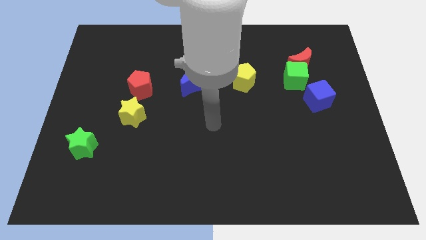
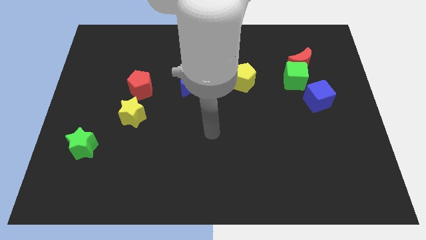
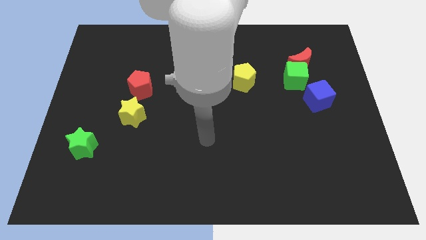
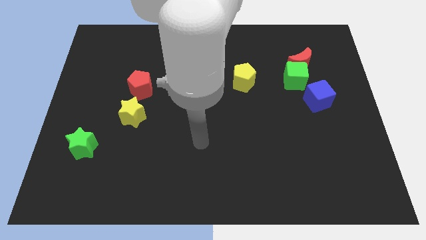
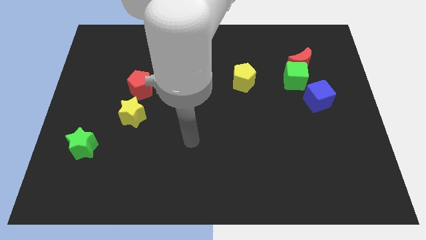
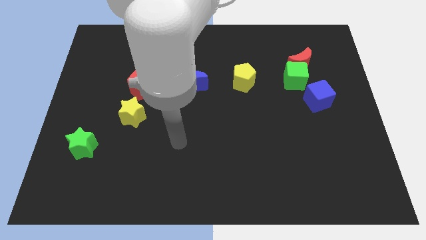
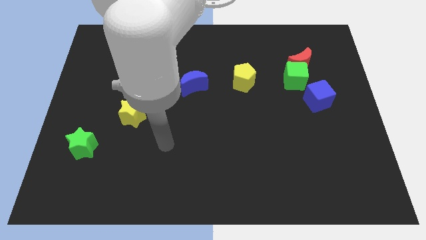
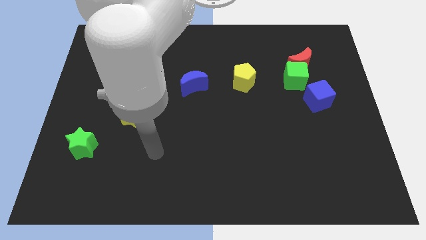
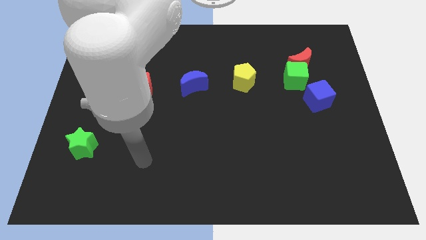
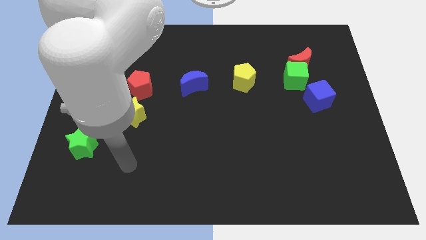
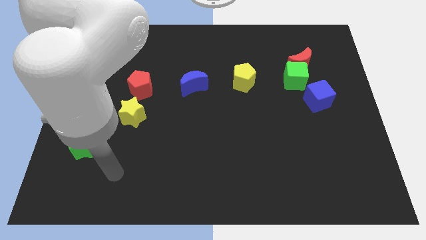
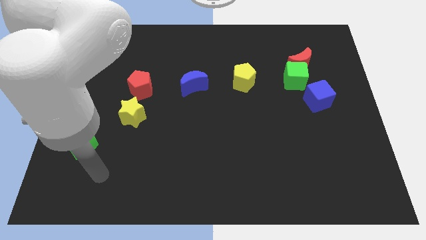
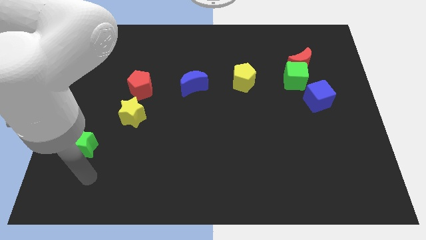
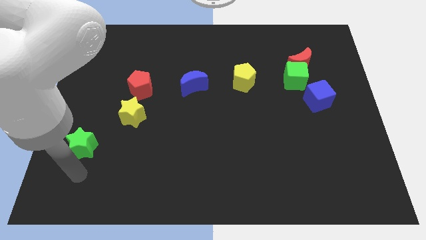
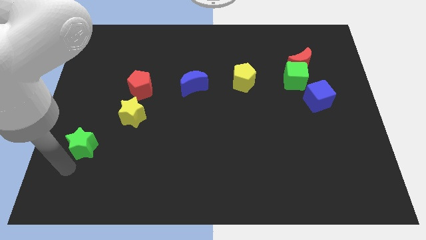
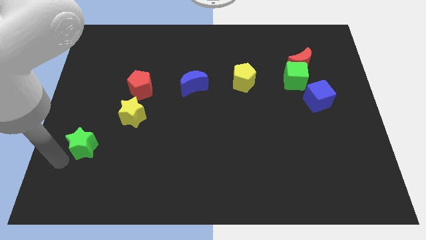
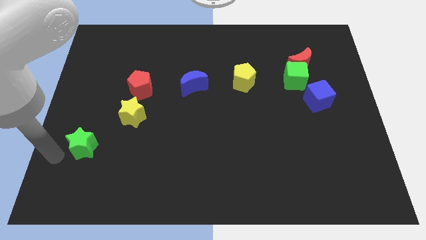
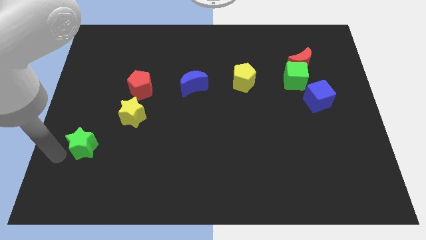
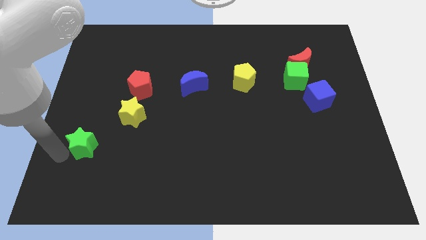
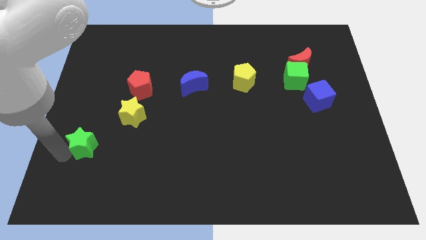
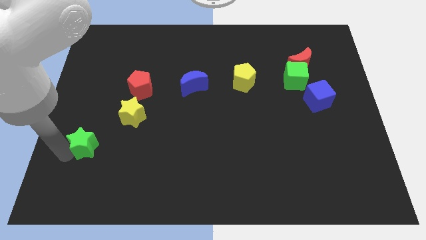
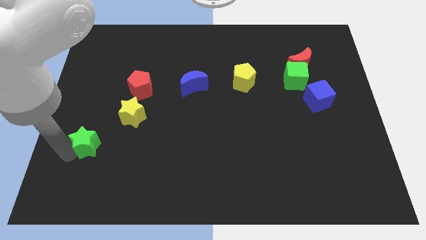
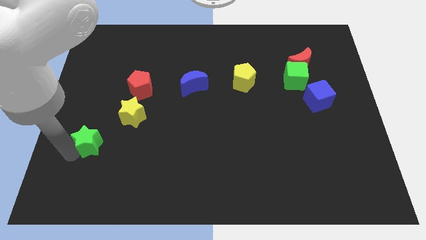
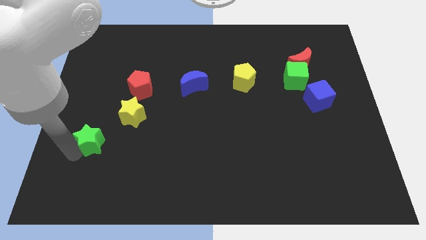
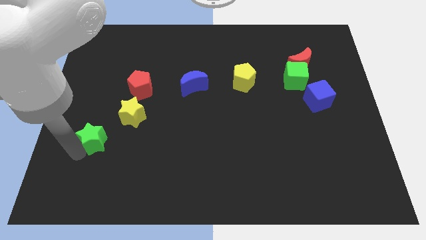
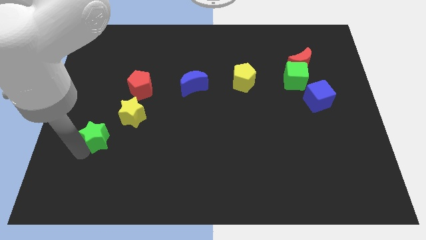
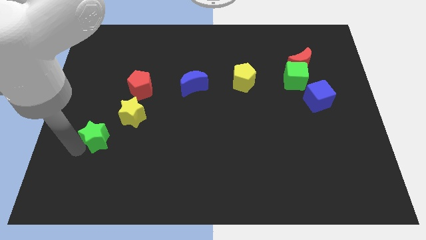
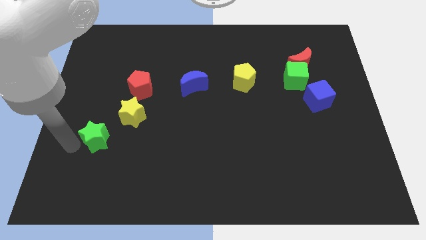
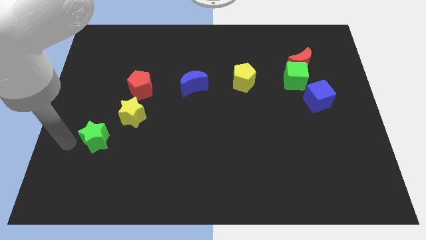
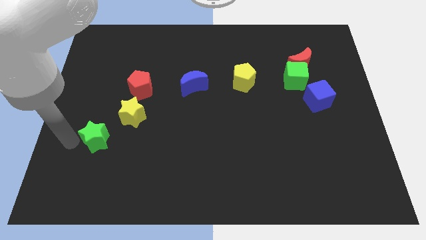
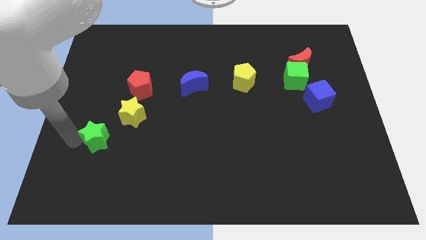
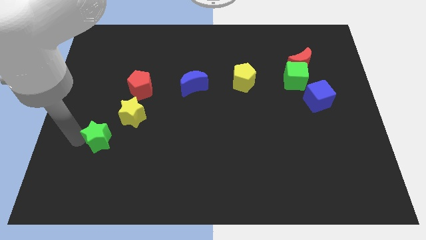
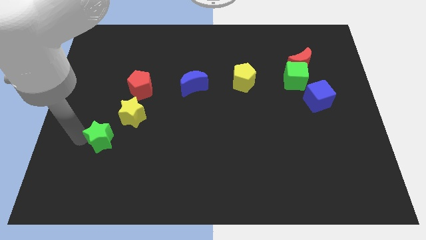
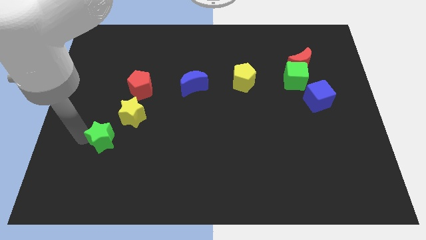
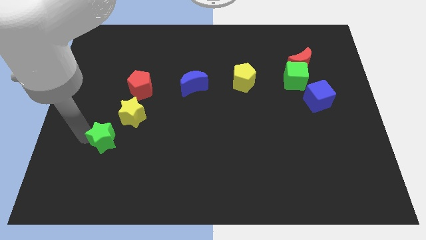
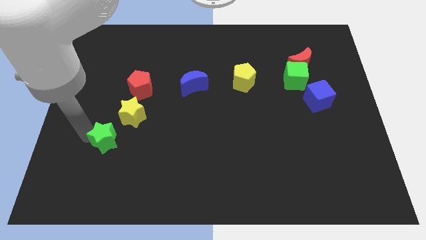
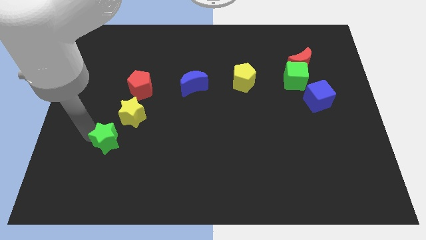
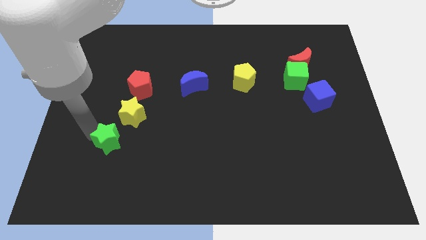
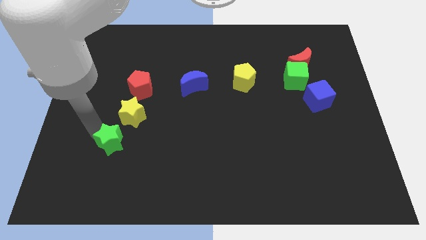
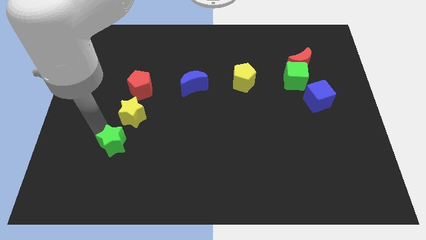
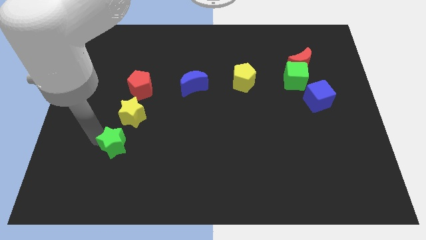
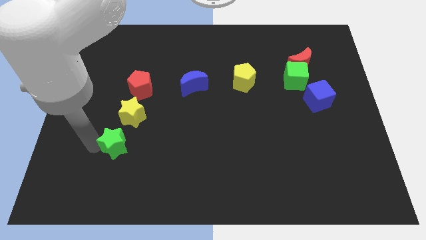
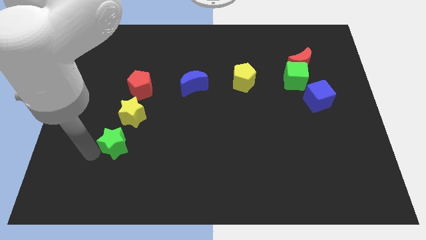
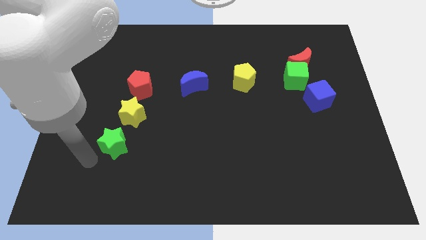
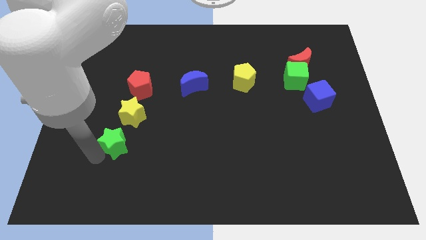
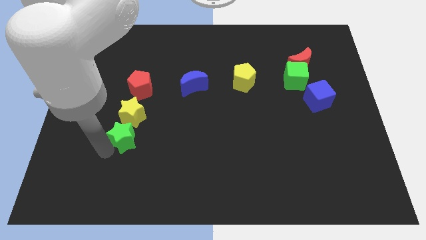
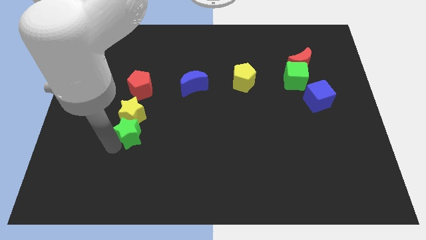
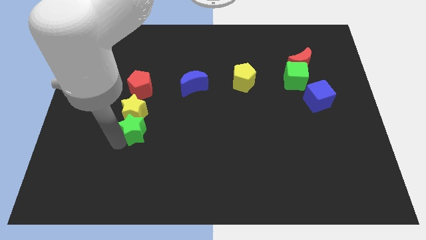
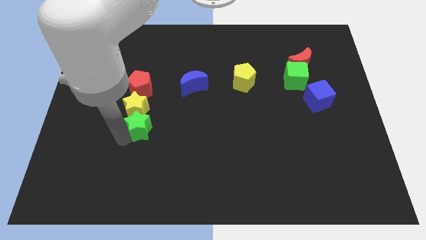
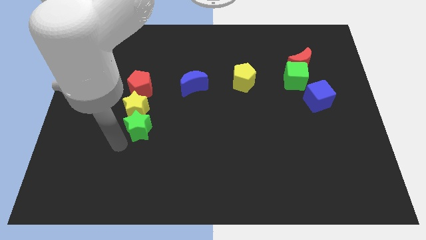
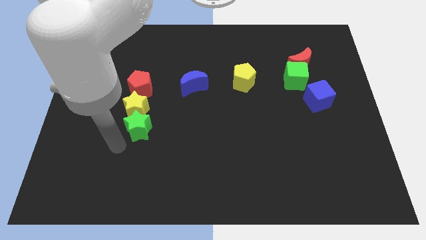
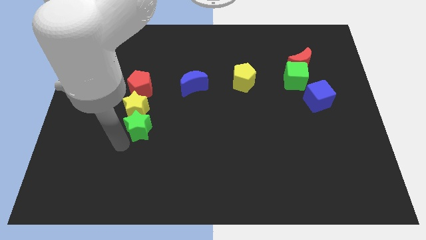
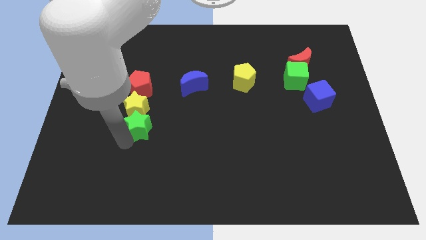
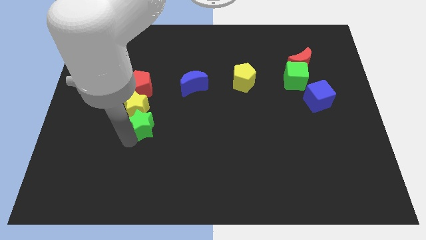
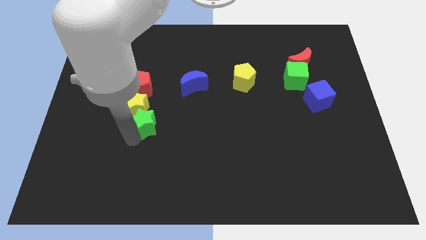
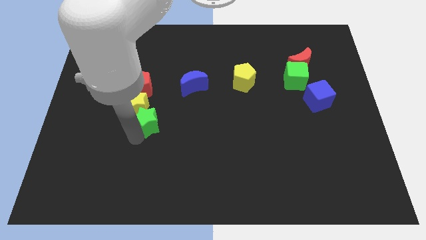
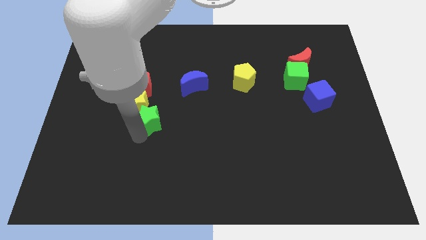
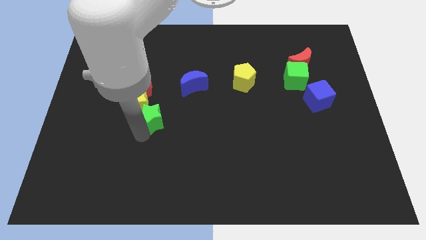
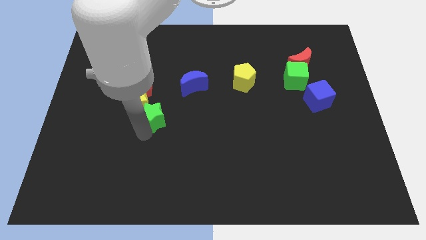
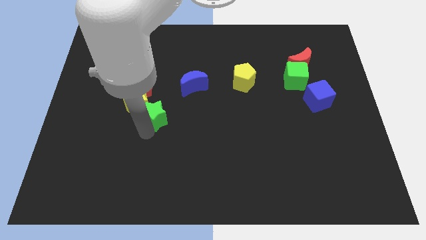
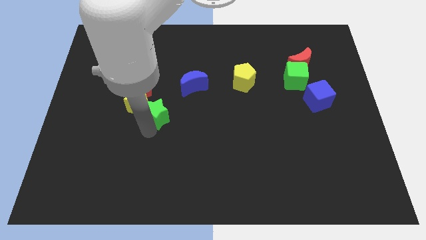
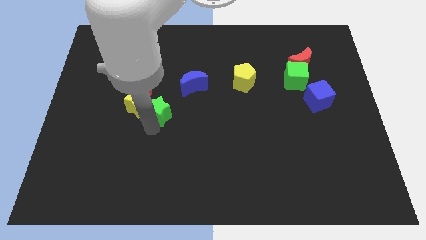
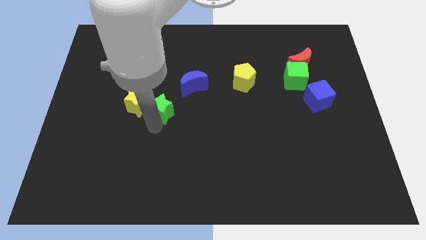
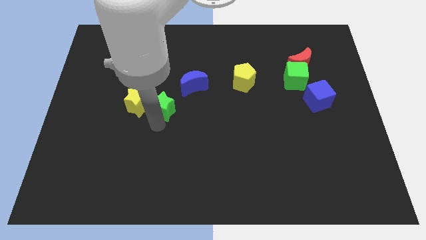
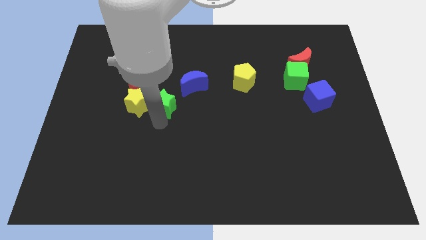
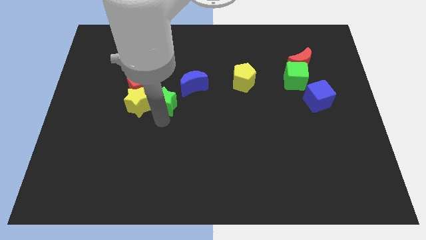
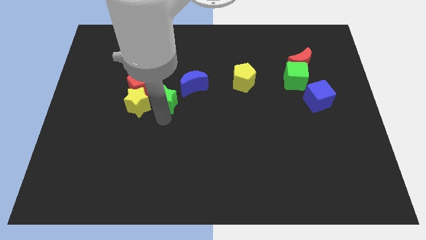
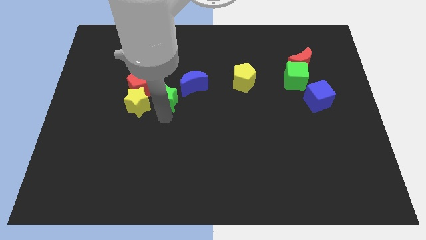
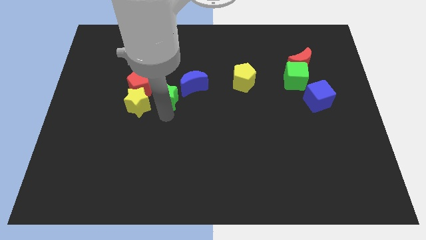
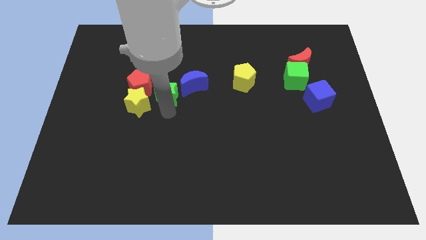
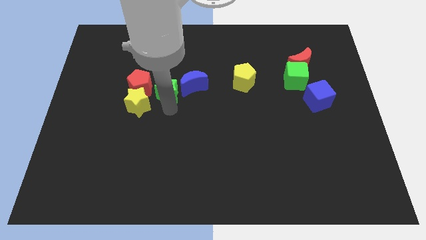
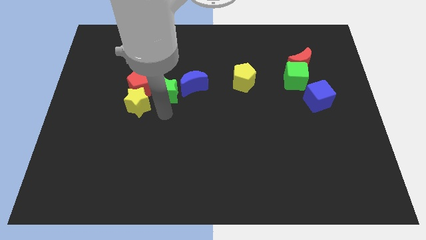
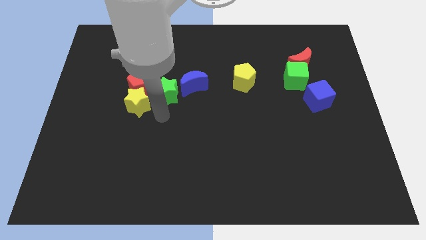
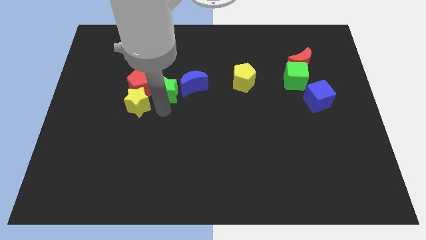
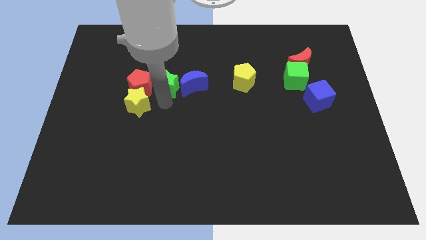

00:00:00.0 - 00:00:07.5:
put the green star diagonally up and to the left of the blue moon
